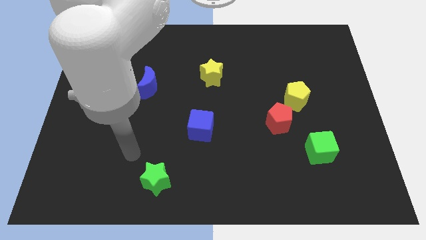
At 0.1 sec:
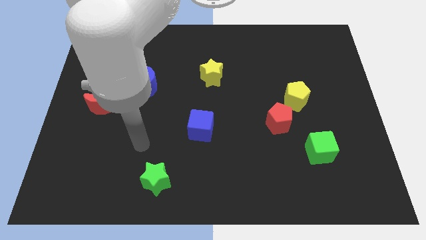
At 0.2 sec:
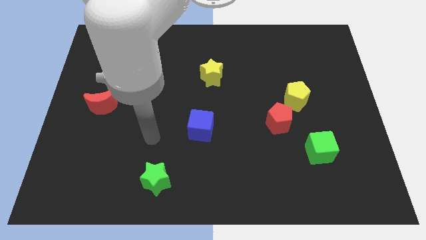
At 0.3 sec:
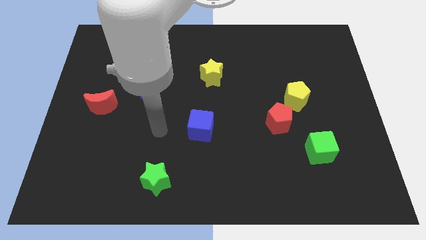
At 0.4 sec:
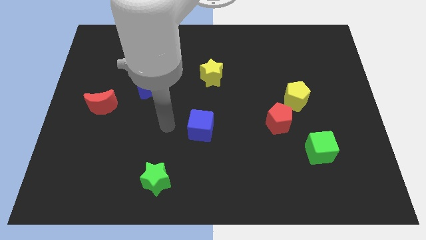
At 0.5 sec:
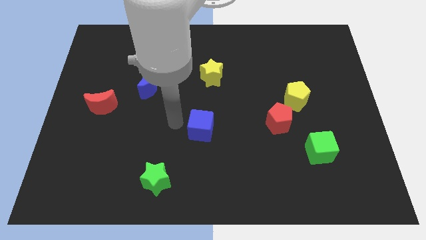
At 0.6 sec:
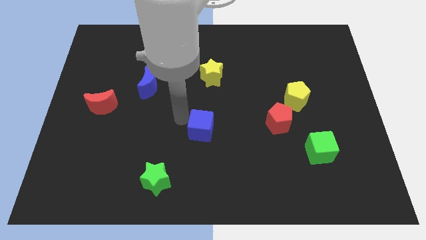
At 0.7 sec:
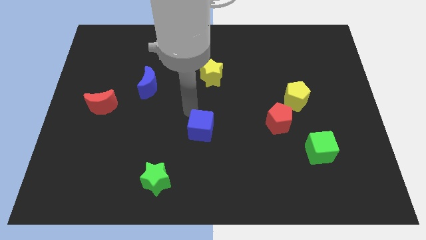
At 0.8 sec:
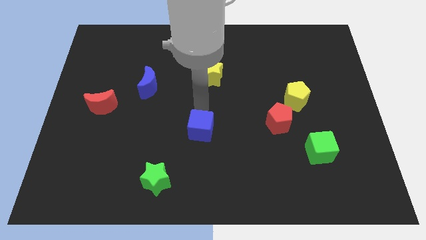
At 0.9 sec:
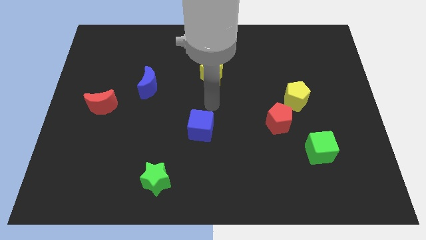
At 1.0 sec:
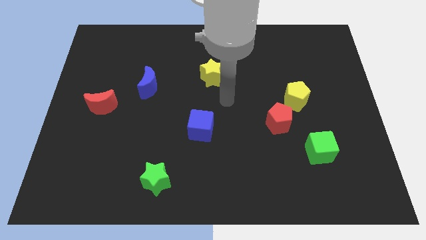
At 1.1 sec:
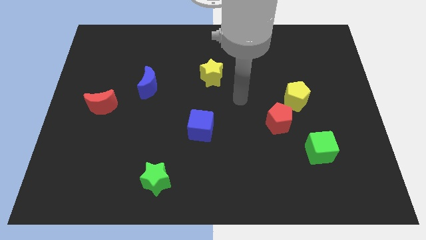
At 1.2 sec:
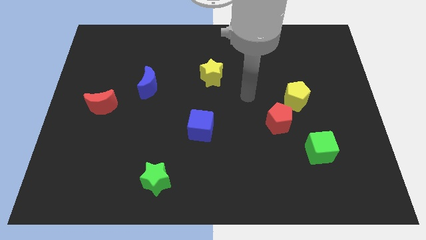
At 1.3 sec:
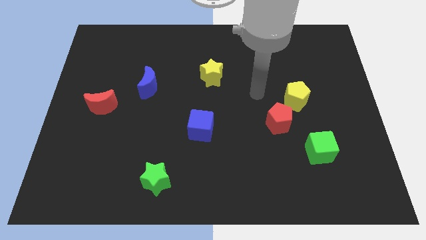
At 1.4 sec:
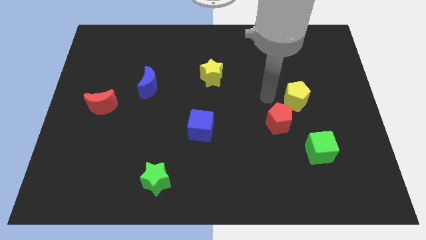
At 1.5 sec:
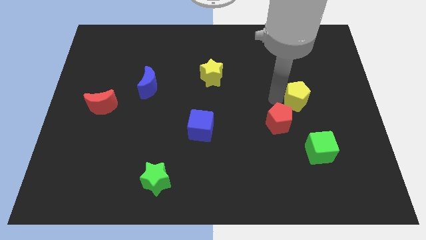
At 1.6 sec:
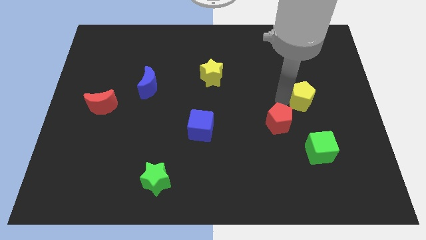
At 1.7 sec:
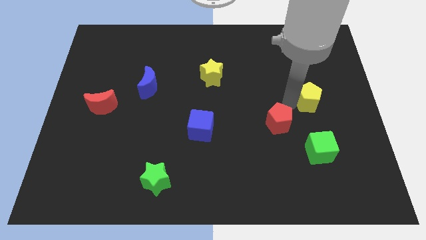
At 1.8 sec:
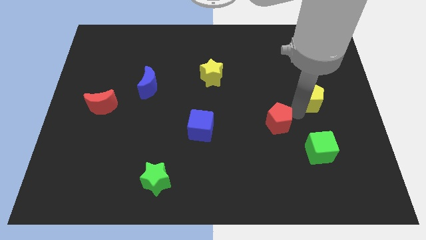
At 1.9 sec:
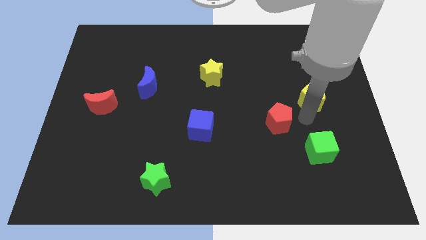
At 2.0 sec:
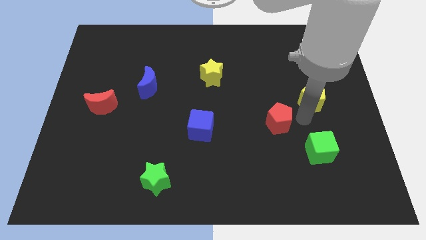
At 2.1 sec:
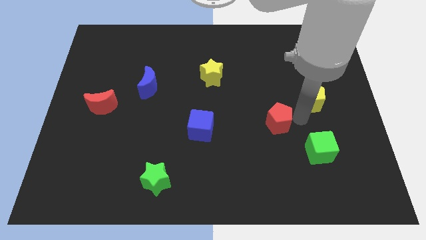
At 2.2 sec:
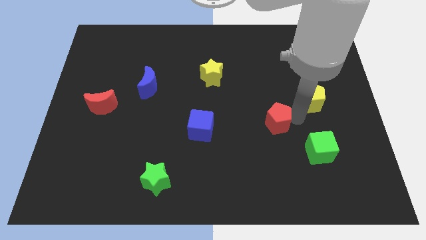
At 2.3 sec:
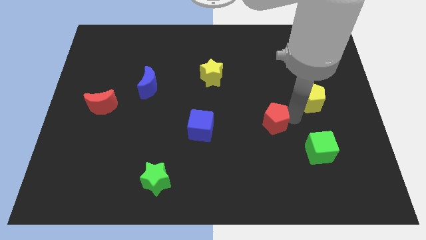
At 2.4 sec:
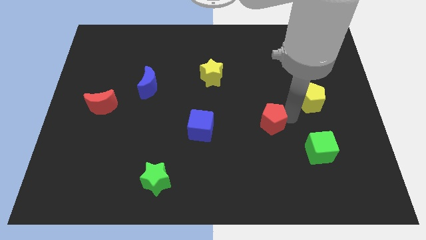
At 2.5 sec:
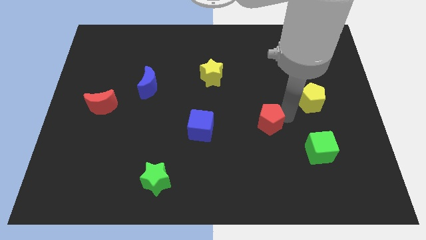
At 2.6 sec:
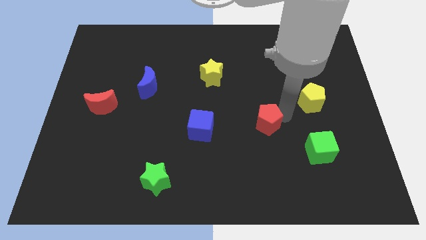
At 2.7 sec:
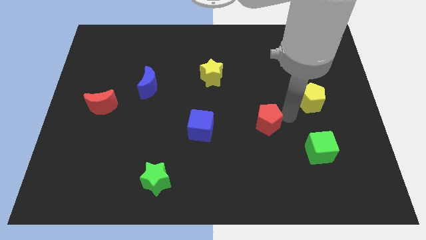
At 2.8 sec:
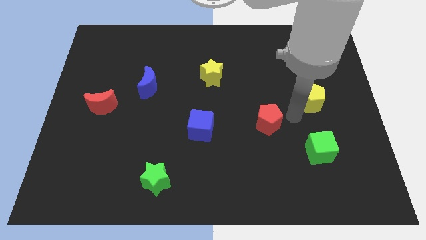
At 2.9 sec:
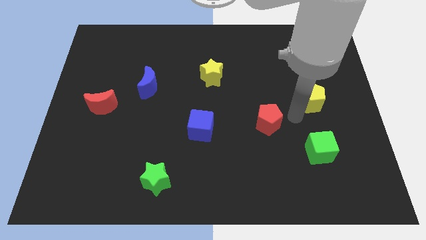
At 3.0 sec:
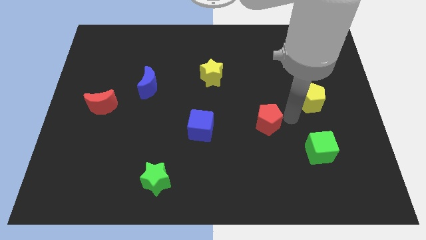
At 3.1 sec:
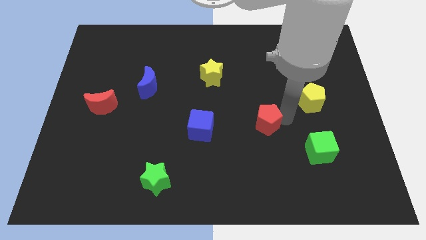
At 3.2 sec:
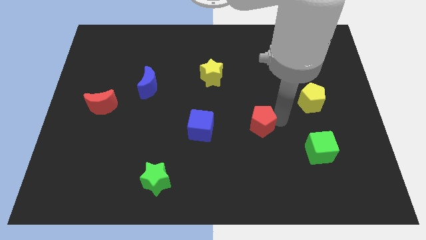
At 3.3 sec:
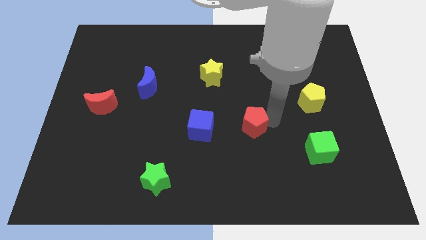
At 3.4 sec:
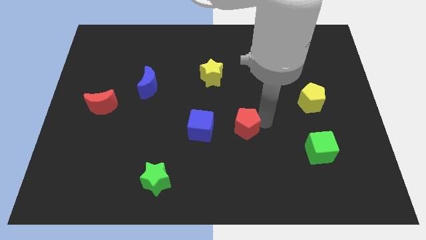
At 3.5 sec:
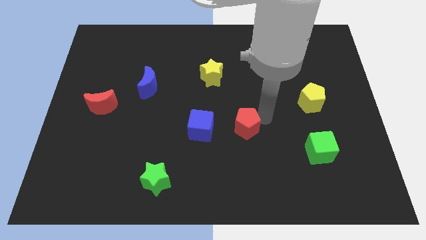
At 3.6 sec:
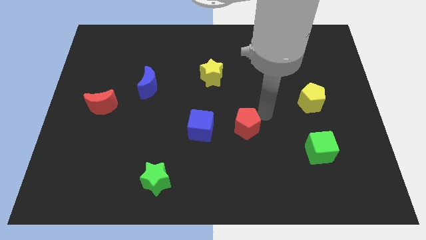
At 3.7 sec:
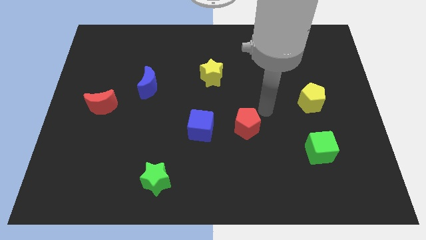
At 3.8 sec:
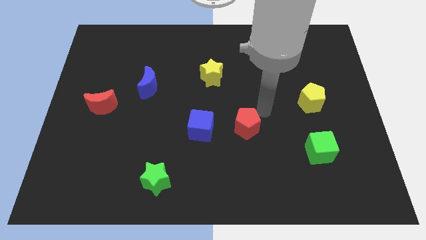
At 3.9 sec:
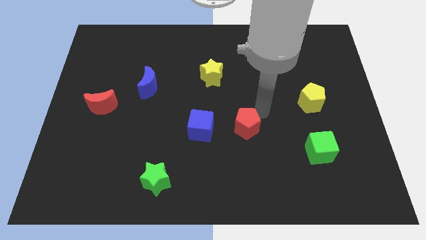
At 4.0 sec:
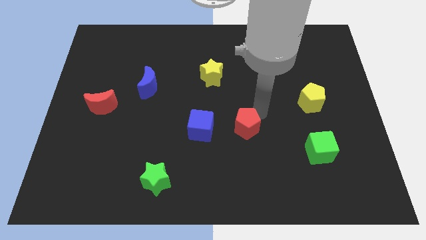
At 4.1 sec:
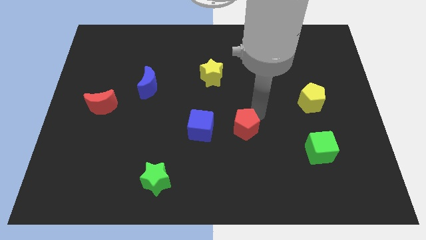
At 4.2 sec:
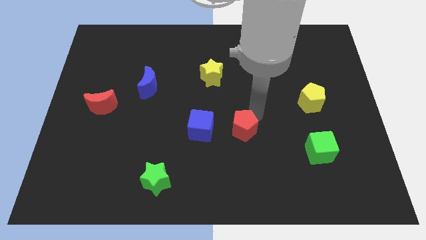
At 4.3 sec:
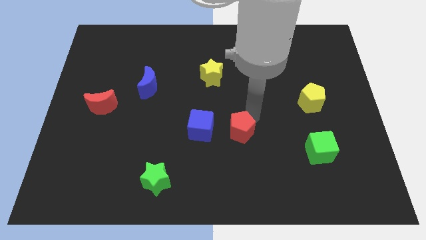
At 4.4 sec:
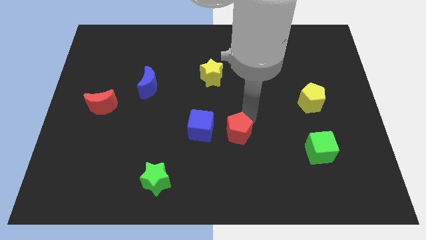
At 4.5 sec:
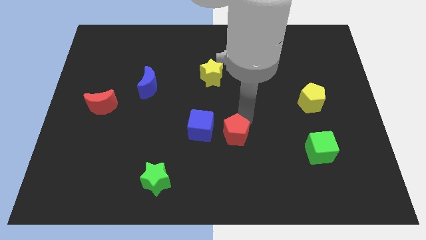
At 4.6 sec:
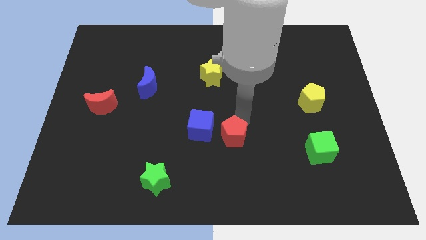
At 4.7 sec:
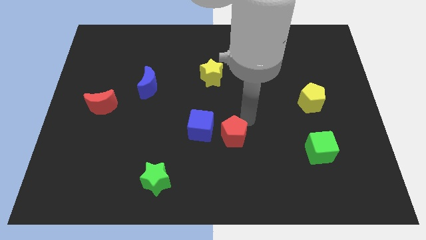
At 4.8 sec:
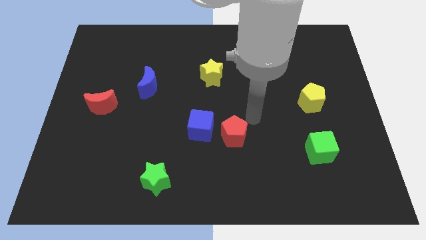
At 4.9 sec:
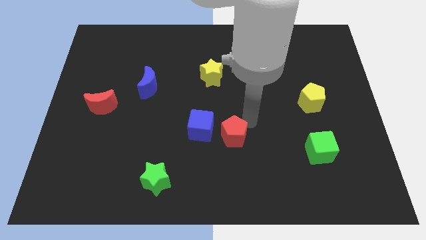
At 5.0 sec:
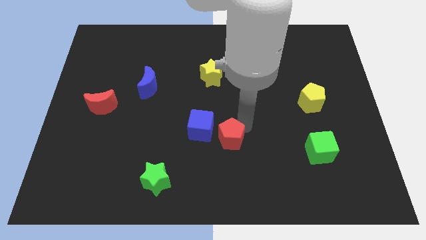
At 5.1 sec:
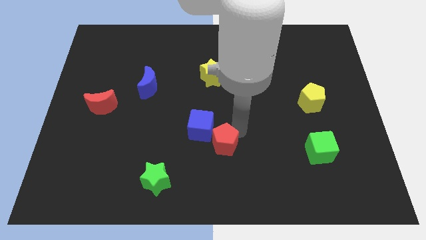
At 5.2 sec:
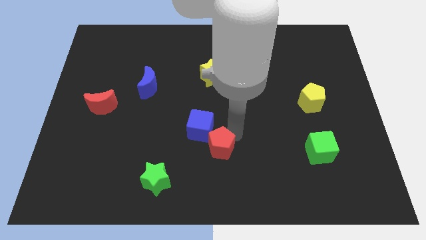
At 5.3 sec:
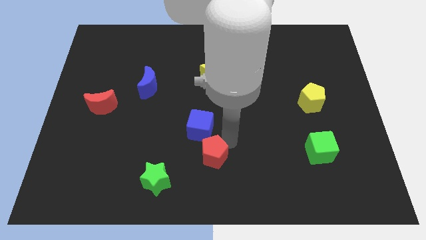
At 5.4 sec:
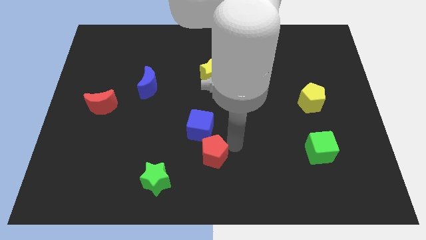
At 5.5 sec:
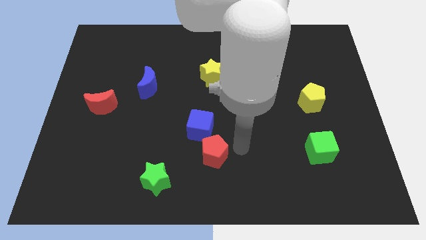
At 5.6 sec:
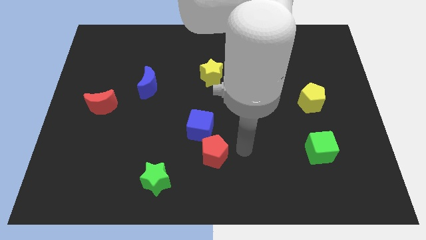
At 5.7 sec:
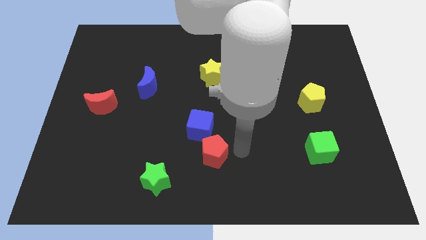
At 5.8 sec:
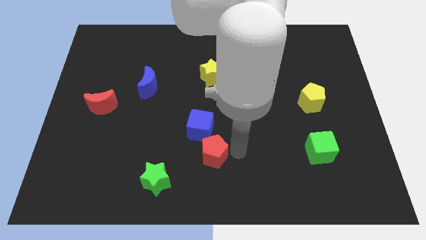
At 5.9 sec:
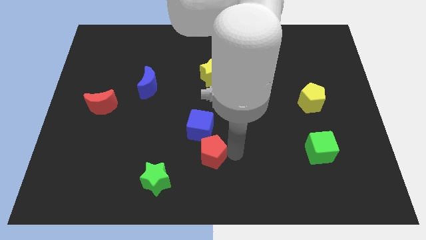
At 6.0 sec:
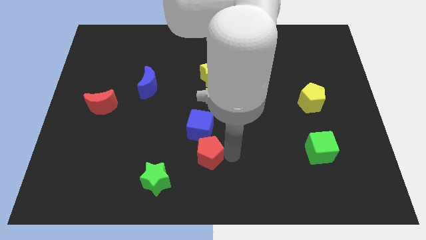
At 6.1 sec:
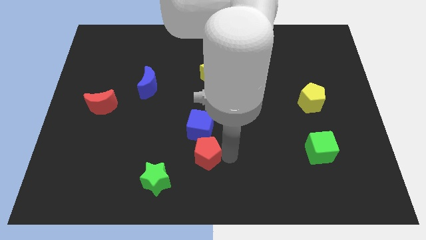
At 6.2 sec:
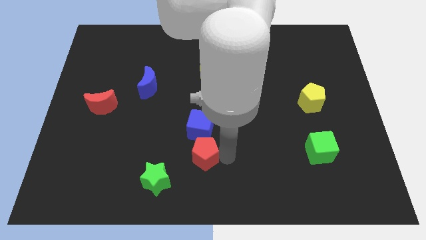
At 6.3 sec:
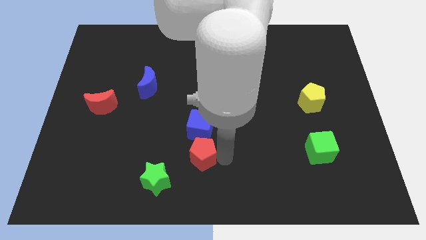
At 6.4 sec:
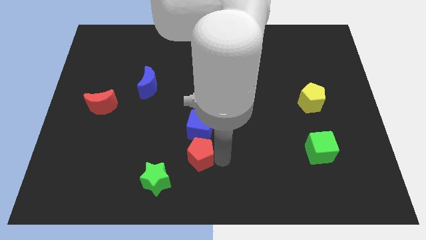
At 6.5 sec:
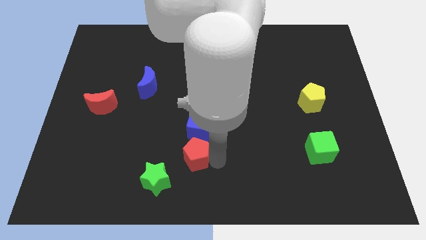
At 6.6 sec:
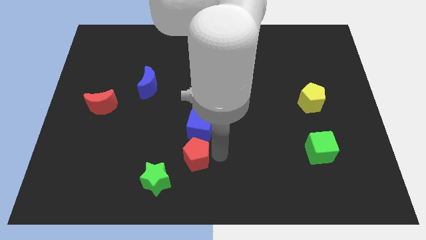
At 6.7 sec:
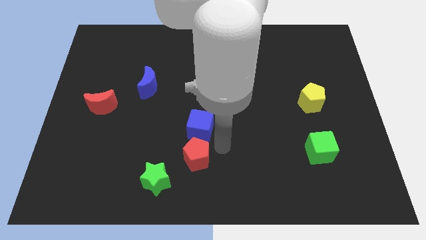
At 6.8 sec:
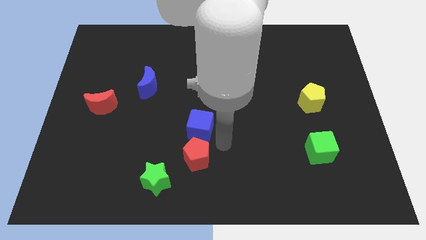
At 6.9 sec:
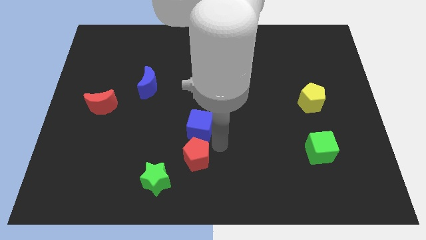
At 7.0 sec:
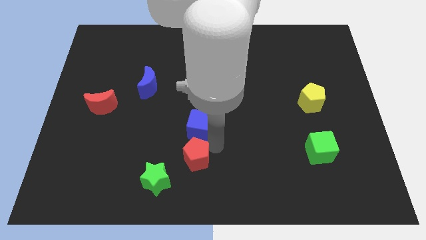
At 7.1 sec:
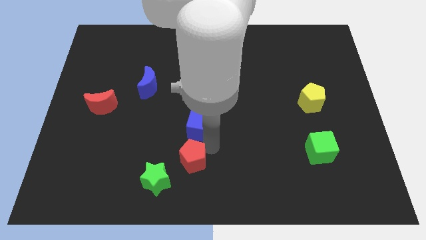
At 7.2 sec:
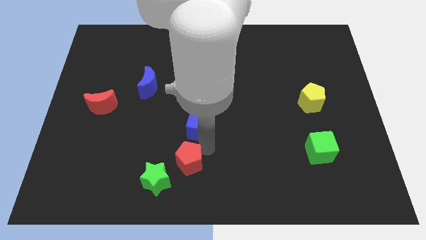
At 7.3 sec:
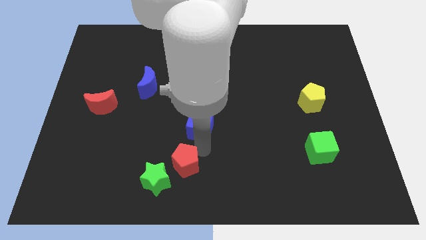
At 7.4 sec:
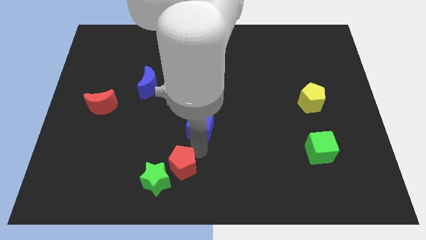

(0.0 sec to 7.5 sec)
put the red pentagon next to the green star

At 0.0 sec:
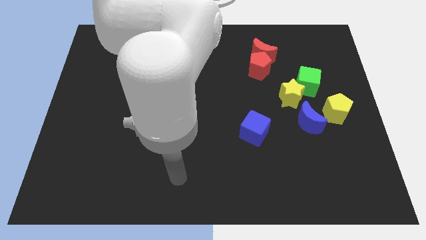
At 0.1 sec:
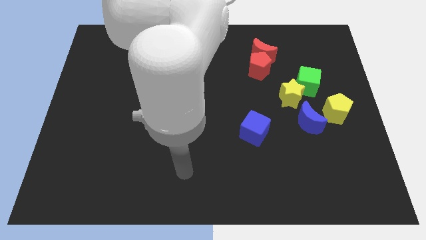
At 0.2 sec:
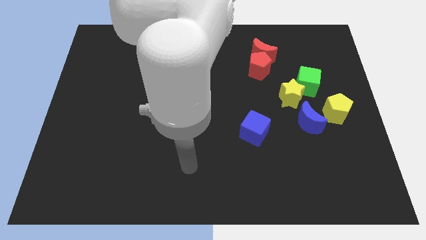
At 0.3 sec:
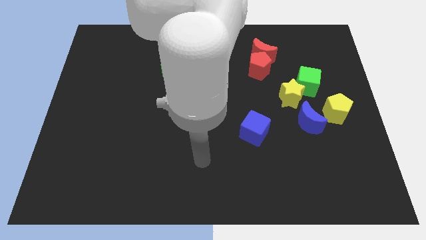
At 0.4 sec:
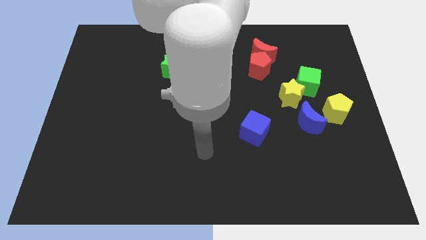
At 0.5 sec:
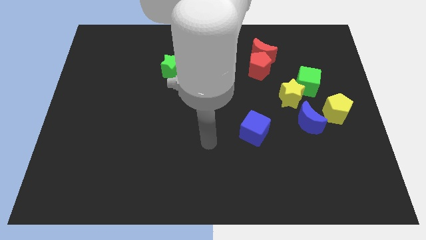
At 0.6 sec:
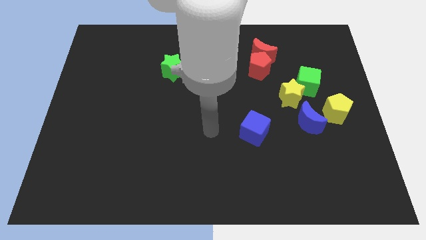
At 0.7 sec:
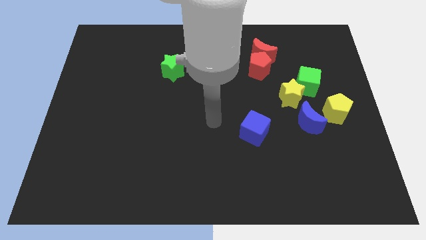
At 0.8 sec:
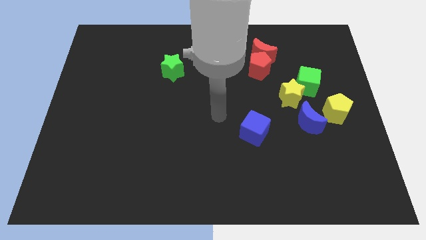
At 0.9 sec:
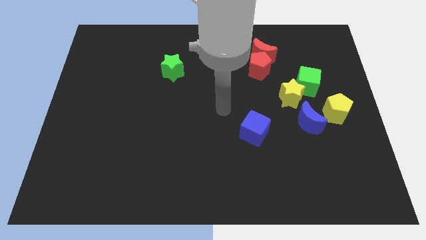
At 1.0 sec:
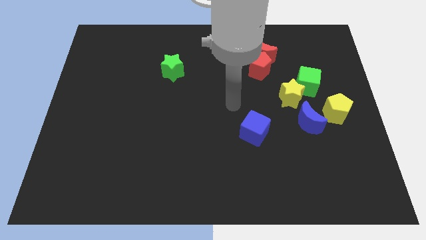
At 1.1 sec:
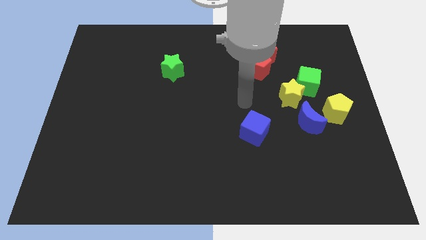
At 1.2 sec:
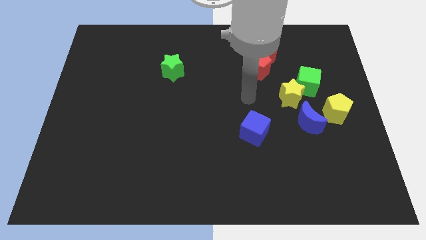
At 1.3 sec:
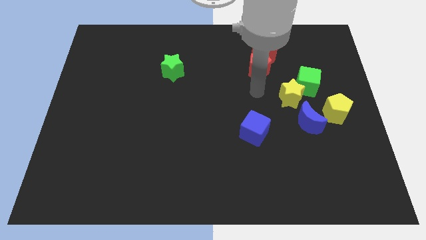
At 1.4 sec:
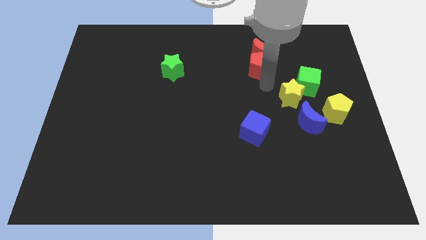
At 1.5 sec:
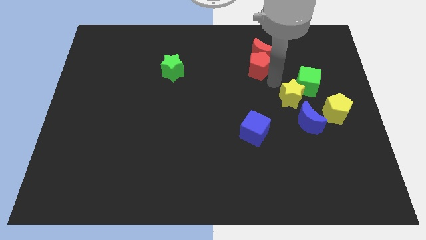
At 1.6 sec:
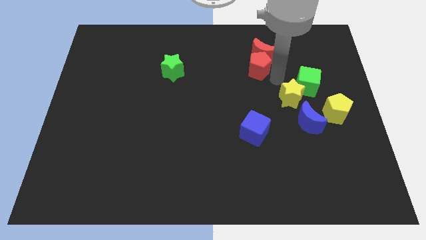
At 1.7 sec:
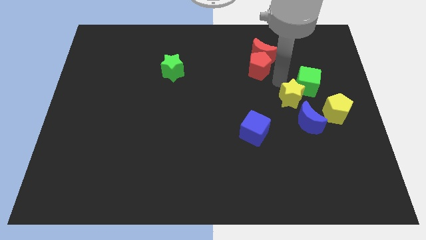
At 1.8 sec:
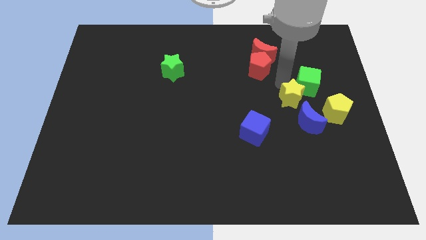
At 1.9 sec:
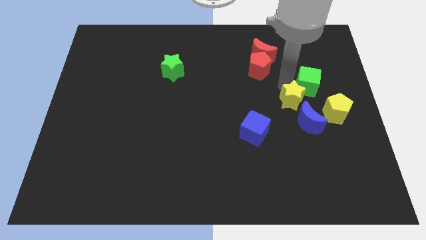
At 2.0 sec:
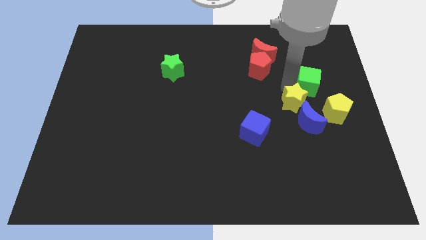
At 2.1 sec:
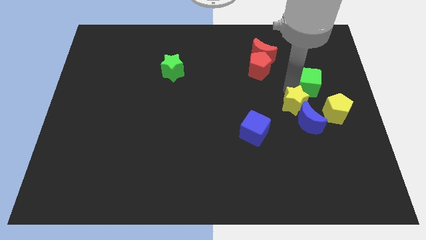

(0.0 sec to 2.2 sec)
put the yellow star next to the blue moon
